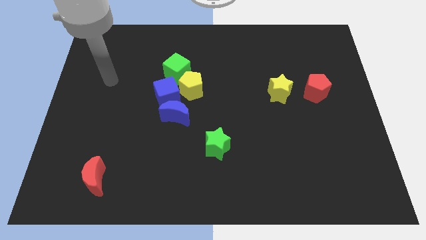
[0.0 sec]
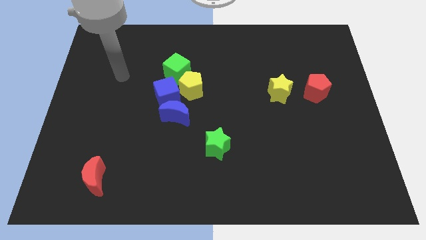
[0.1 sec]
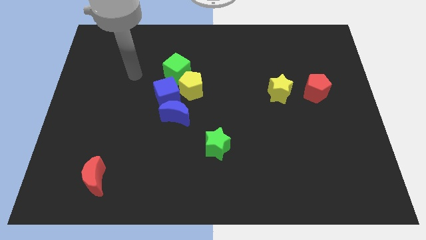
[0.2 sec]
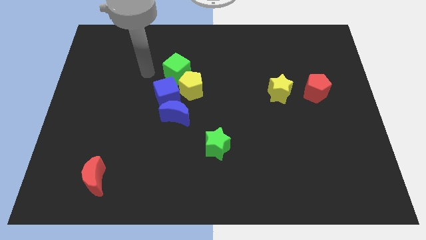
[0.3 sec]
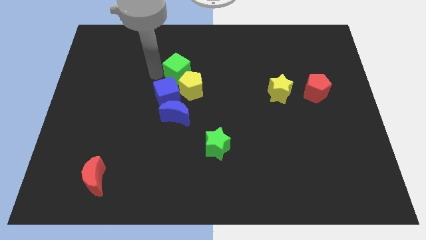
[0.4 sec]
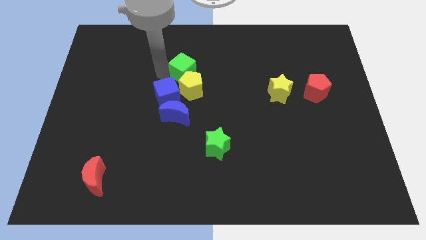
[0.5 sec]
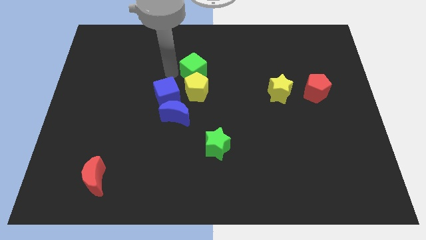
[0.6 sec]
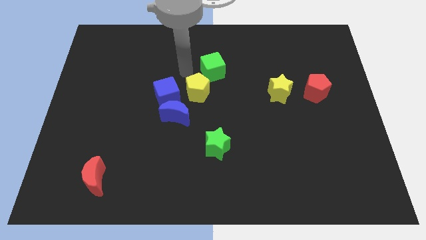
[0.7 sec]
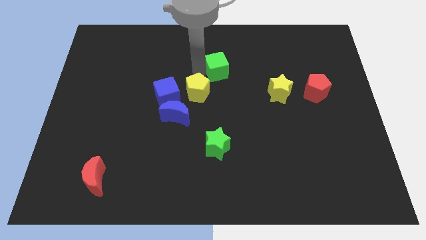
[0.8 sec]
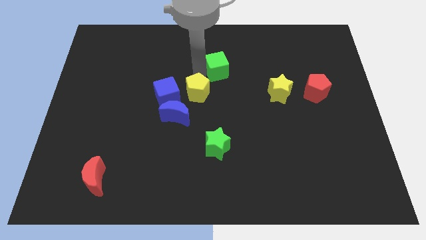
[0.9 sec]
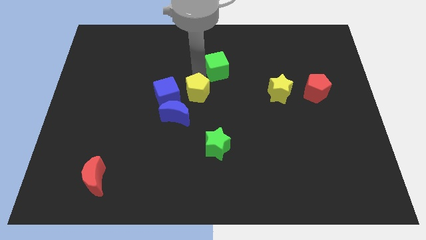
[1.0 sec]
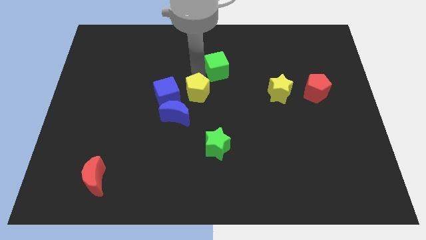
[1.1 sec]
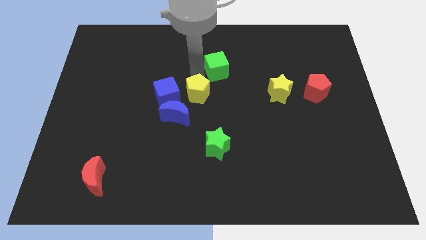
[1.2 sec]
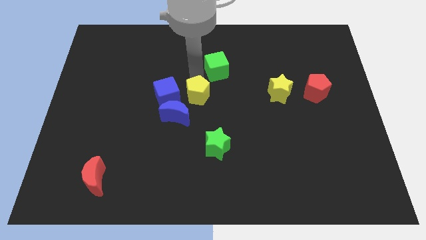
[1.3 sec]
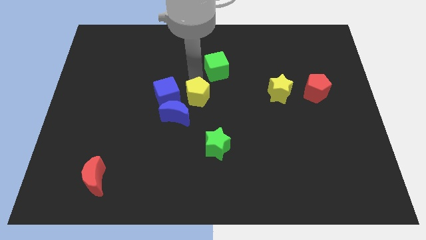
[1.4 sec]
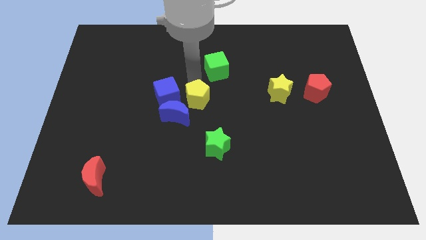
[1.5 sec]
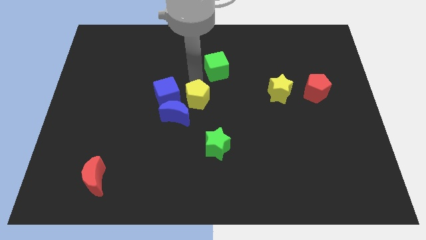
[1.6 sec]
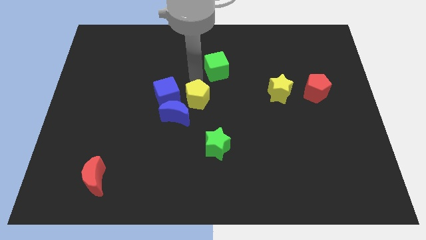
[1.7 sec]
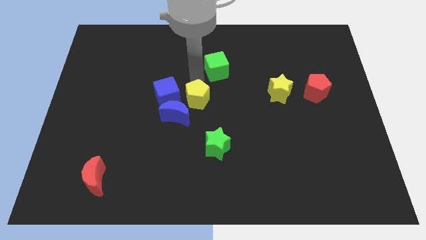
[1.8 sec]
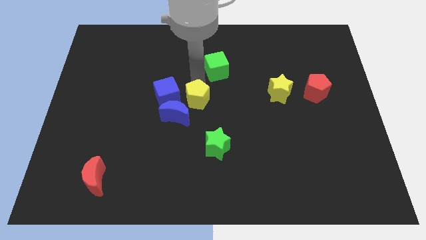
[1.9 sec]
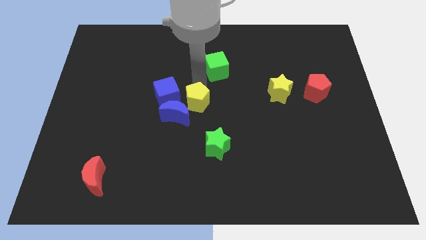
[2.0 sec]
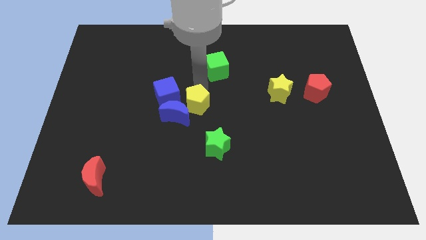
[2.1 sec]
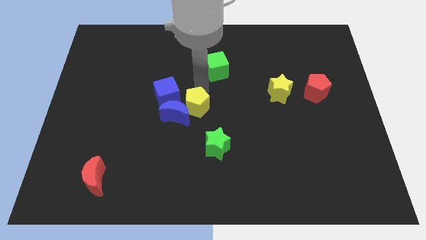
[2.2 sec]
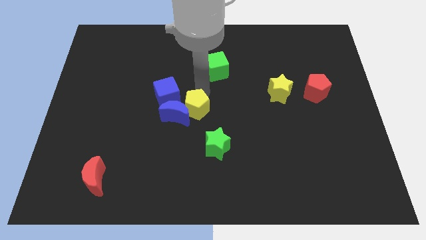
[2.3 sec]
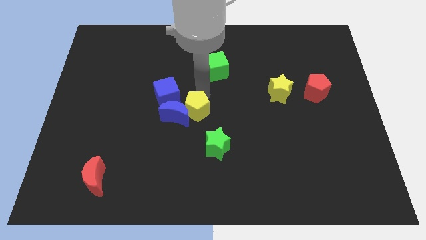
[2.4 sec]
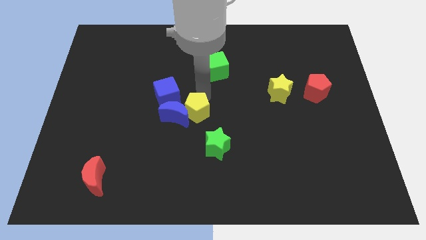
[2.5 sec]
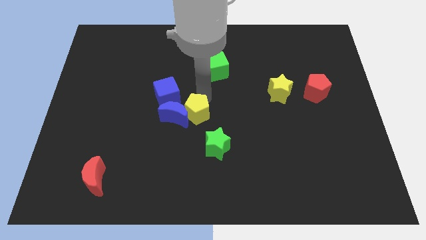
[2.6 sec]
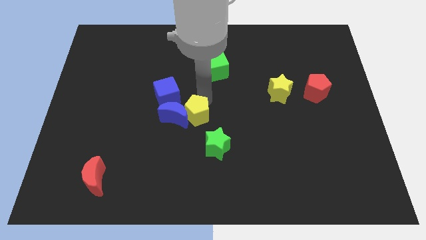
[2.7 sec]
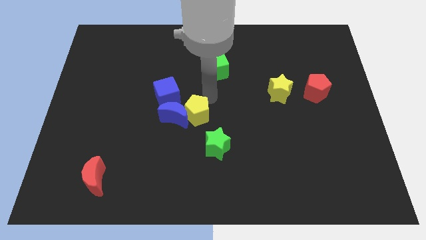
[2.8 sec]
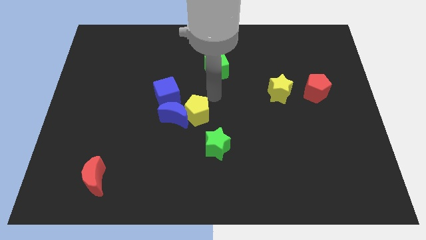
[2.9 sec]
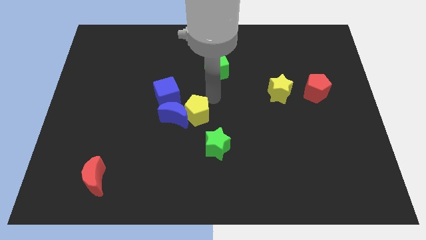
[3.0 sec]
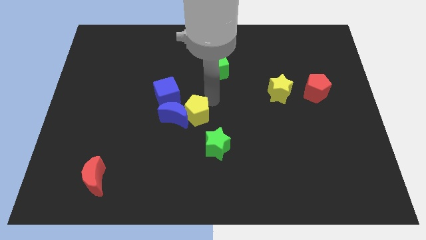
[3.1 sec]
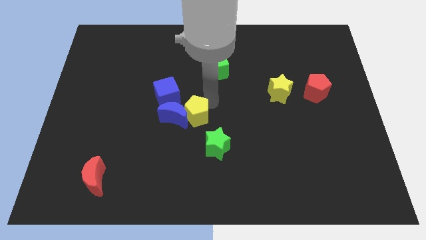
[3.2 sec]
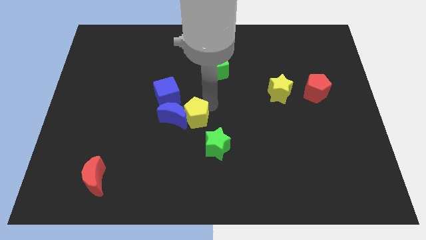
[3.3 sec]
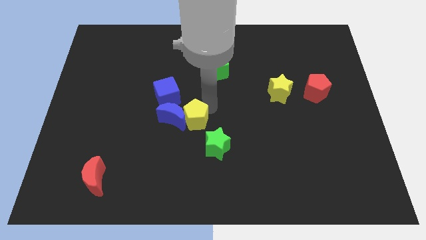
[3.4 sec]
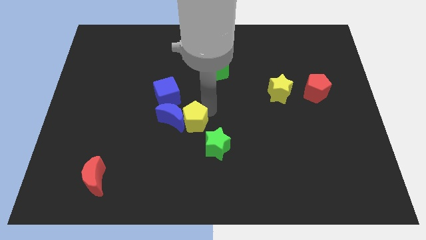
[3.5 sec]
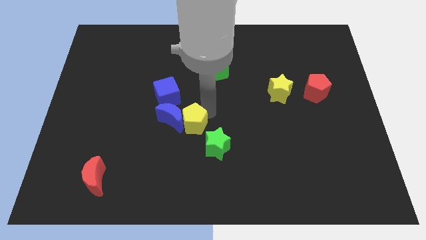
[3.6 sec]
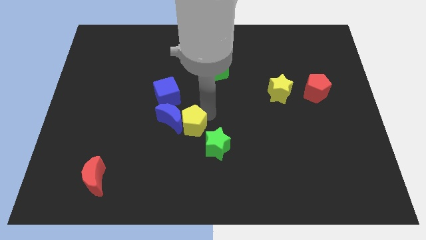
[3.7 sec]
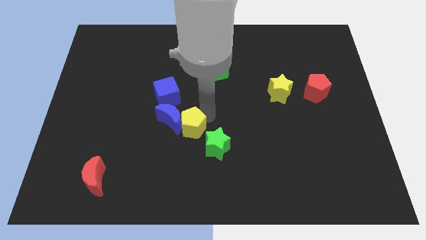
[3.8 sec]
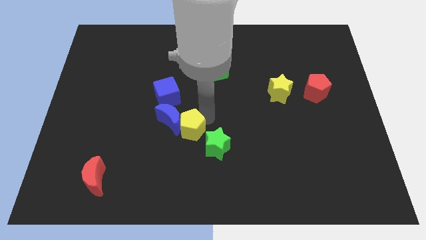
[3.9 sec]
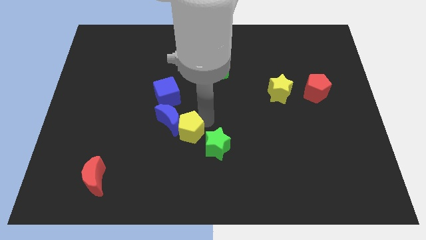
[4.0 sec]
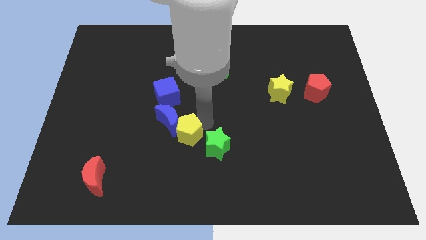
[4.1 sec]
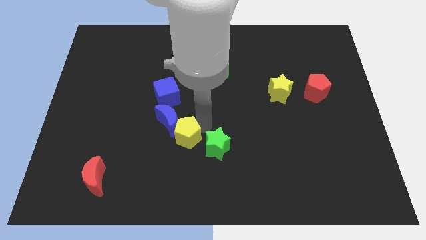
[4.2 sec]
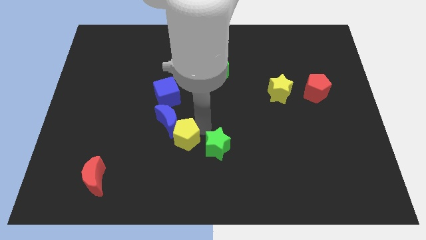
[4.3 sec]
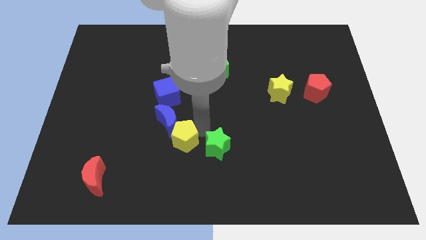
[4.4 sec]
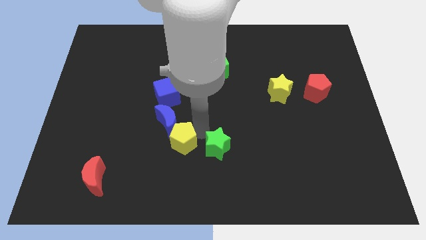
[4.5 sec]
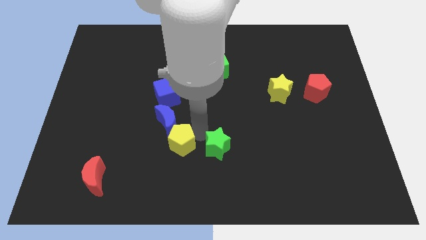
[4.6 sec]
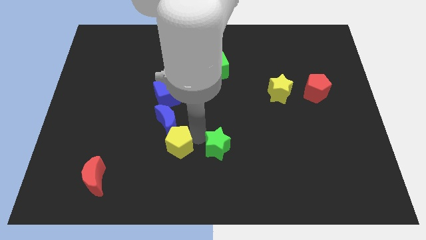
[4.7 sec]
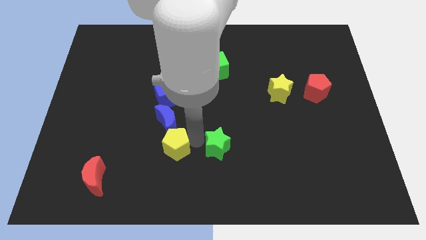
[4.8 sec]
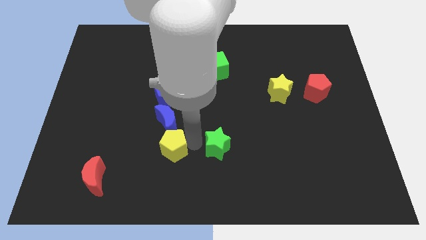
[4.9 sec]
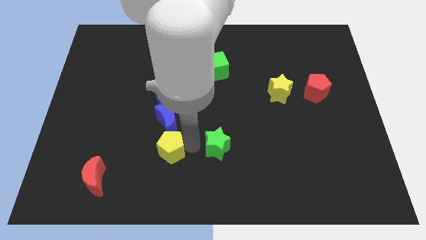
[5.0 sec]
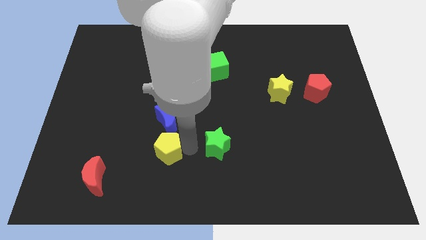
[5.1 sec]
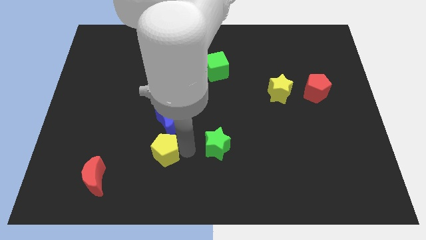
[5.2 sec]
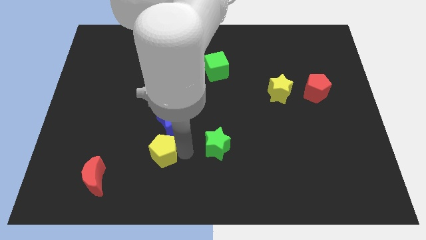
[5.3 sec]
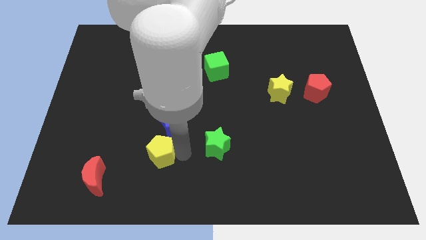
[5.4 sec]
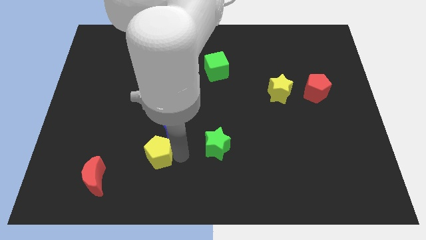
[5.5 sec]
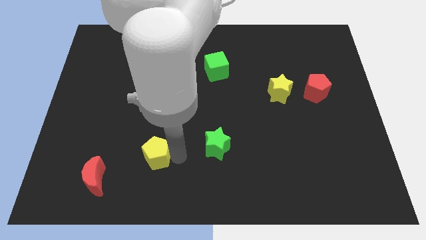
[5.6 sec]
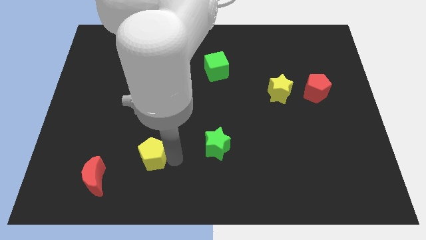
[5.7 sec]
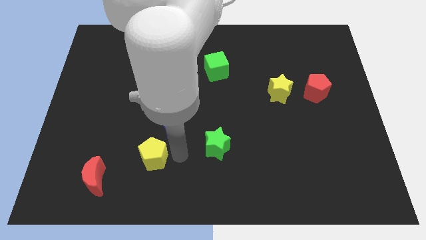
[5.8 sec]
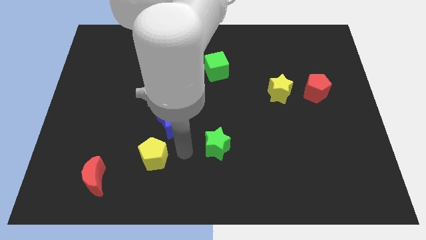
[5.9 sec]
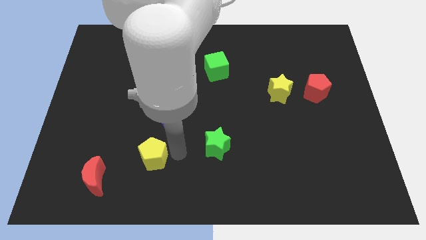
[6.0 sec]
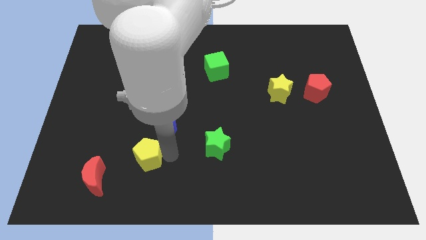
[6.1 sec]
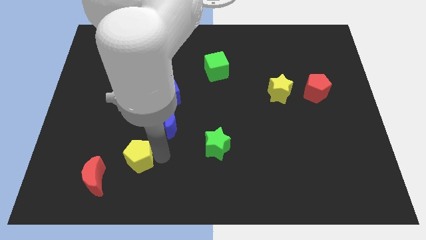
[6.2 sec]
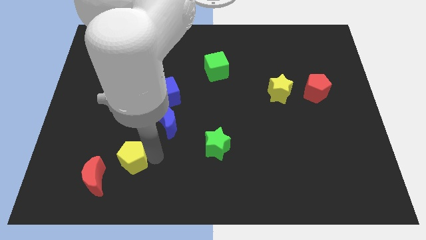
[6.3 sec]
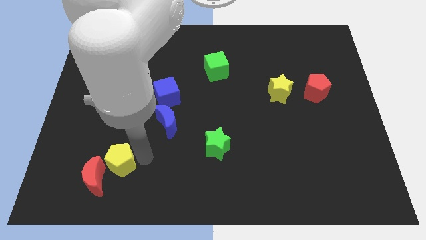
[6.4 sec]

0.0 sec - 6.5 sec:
put the yellow pentagon close to the red moon

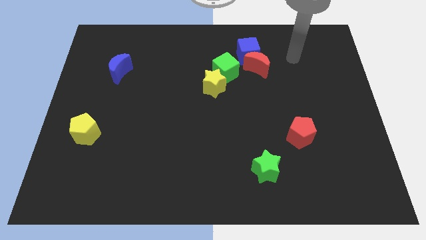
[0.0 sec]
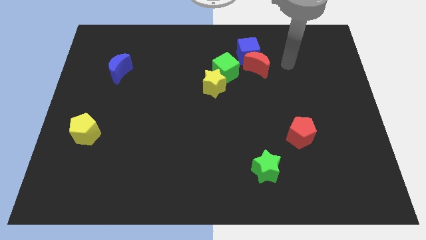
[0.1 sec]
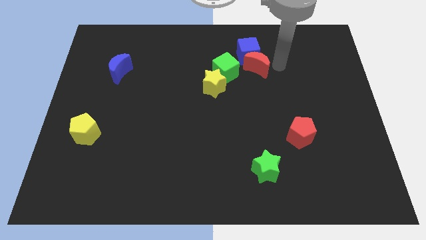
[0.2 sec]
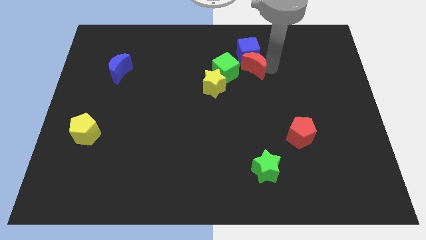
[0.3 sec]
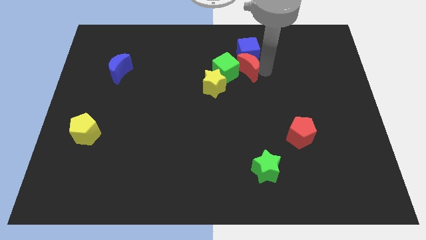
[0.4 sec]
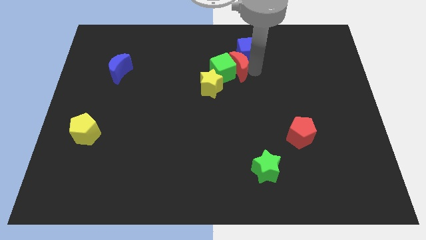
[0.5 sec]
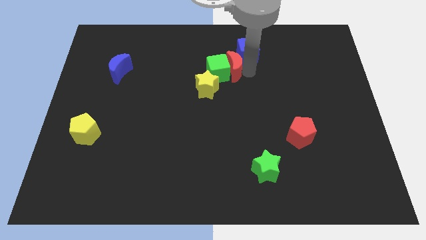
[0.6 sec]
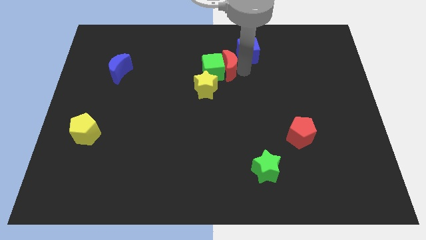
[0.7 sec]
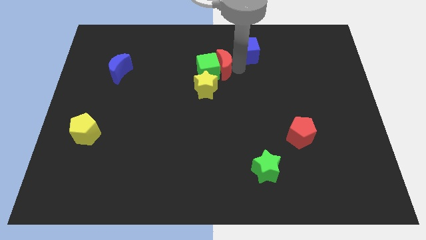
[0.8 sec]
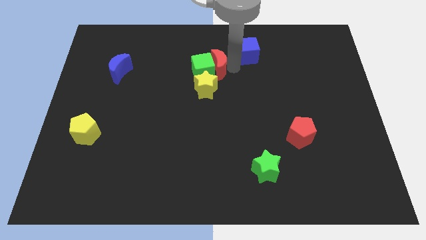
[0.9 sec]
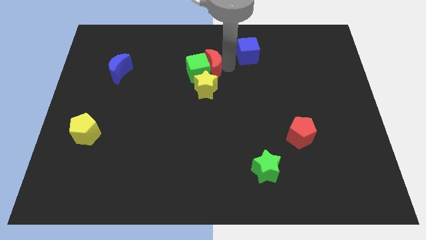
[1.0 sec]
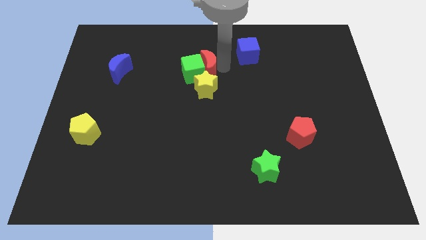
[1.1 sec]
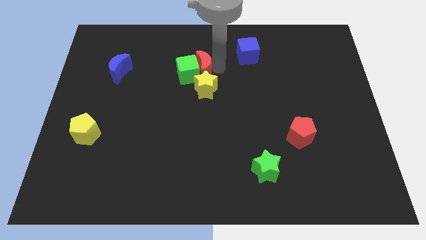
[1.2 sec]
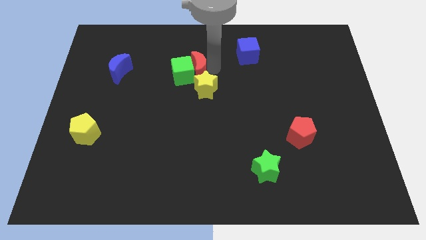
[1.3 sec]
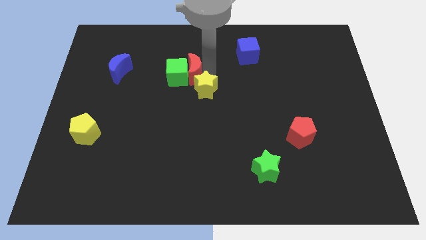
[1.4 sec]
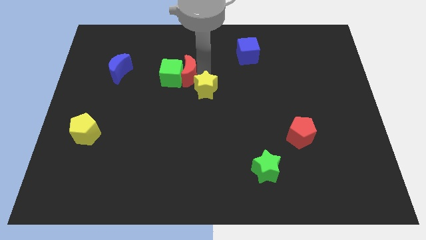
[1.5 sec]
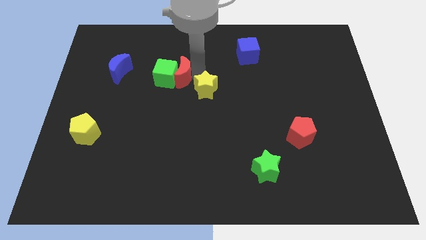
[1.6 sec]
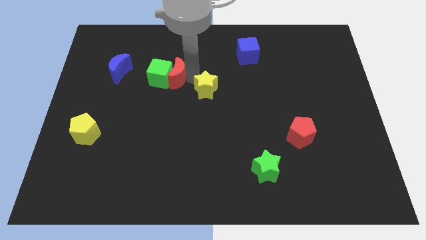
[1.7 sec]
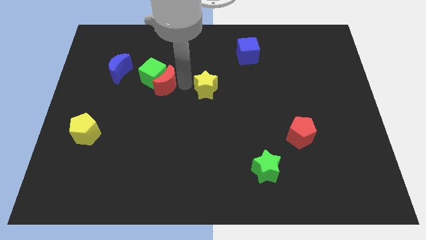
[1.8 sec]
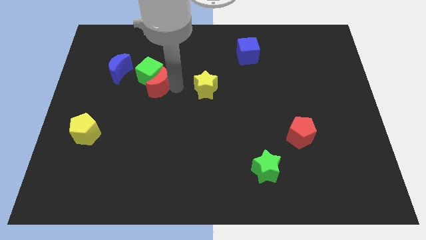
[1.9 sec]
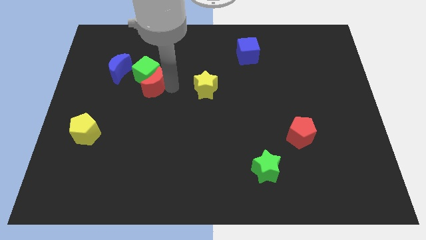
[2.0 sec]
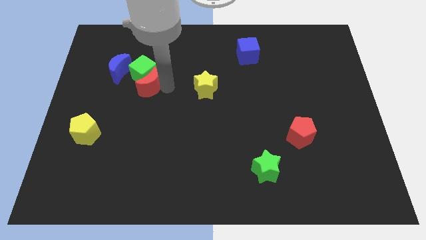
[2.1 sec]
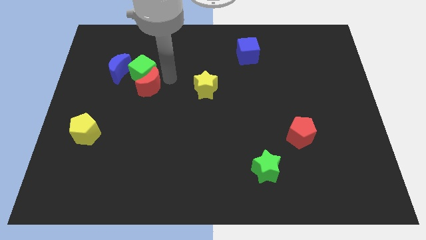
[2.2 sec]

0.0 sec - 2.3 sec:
move the green cube close to the blue moon
